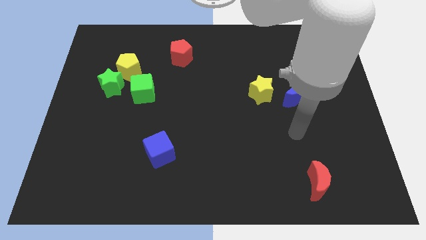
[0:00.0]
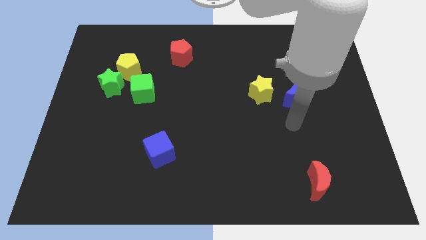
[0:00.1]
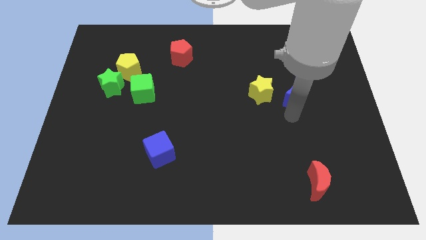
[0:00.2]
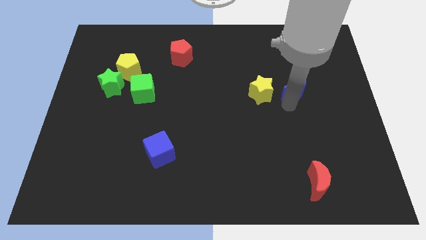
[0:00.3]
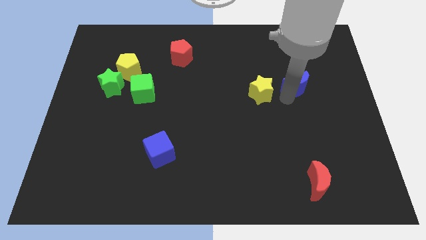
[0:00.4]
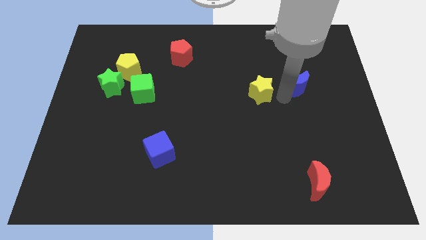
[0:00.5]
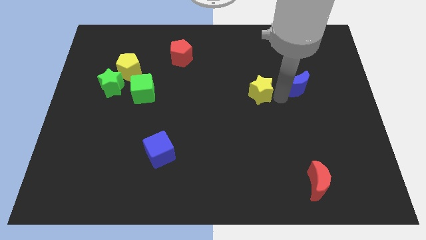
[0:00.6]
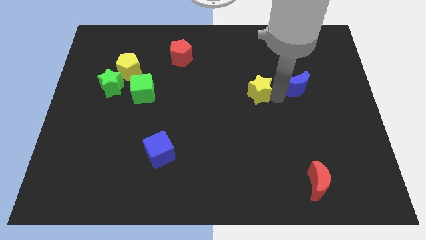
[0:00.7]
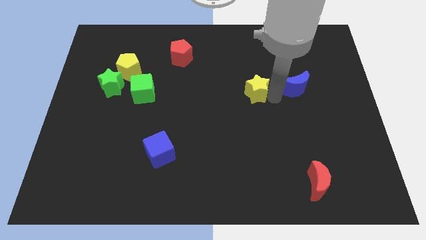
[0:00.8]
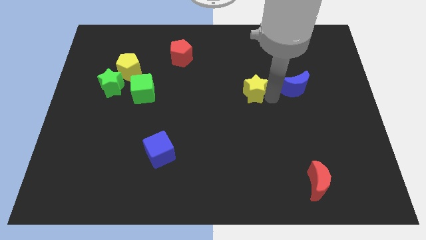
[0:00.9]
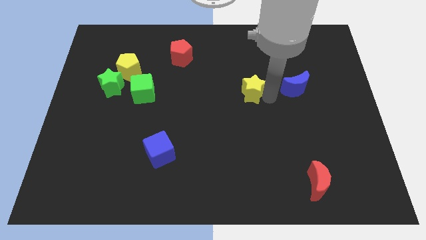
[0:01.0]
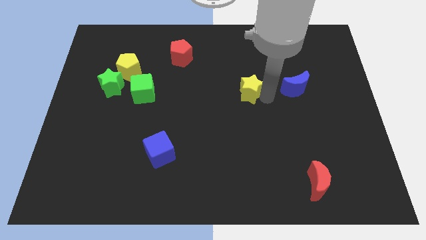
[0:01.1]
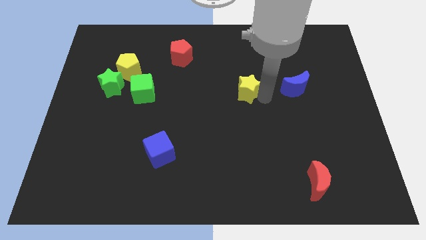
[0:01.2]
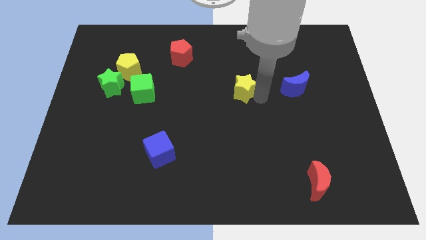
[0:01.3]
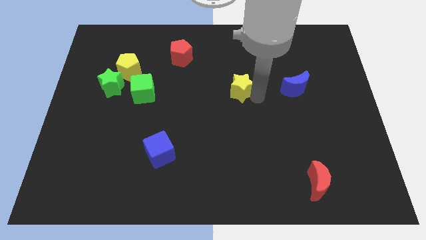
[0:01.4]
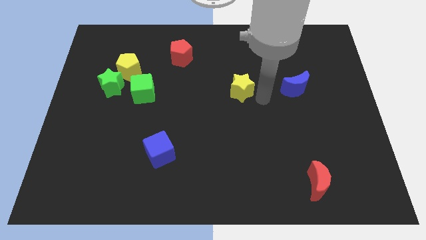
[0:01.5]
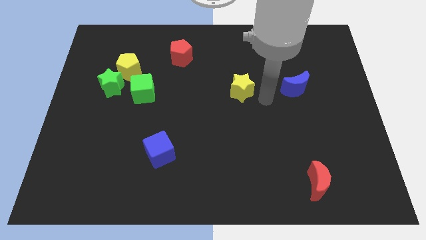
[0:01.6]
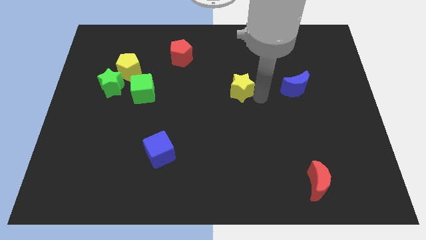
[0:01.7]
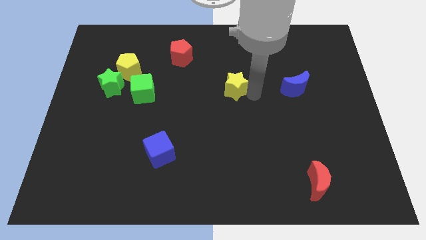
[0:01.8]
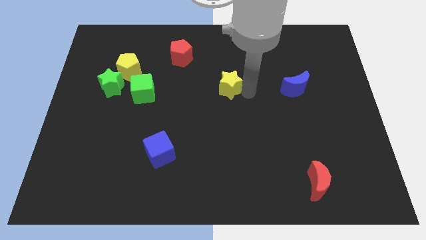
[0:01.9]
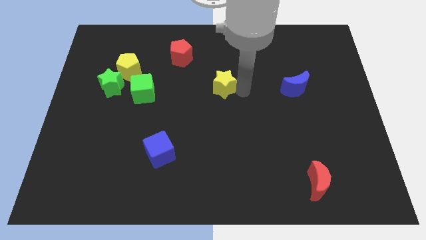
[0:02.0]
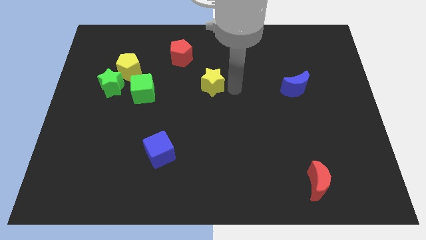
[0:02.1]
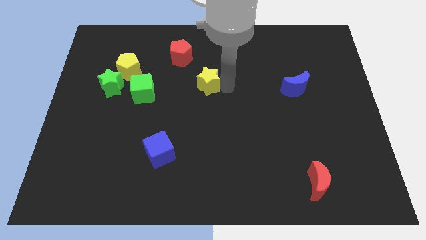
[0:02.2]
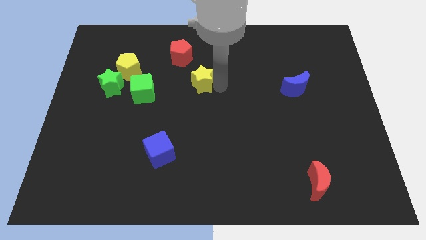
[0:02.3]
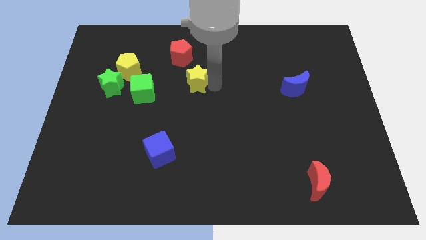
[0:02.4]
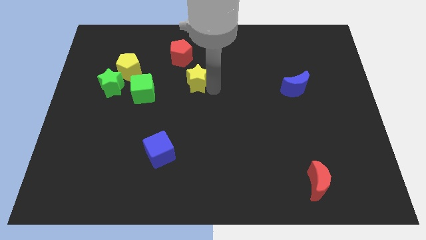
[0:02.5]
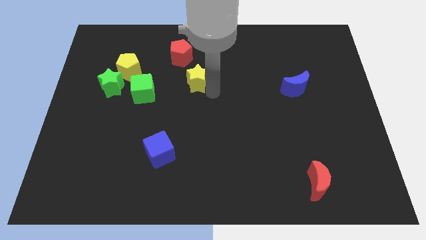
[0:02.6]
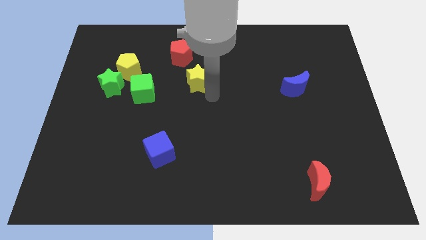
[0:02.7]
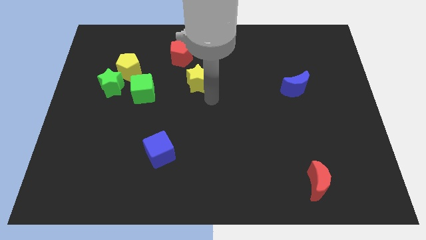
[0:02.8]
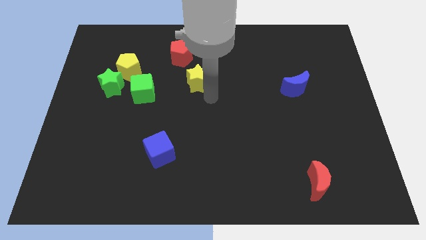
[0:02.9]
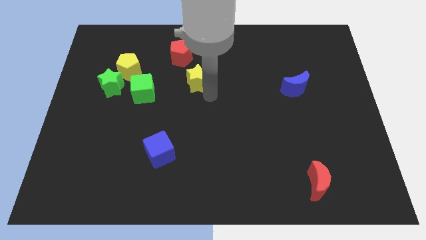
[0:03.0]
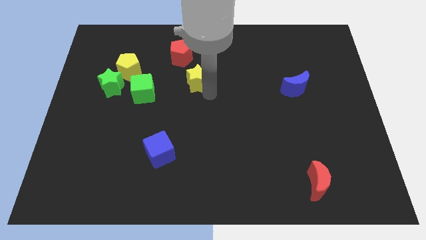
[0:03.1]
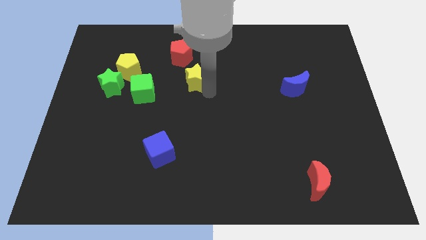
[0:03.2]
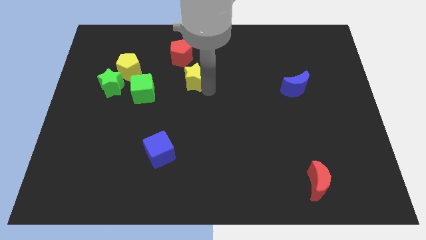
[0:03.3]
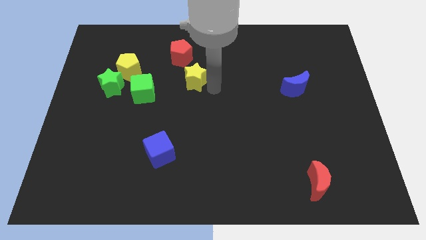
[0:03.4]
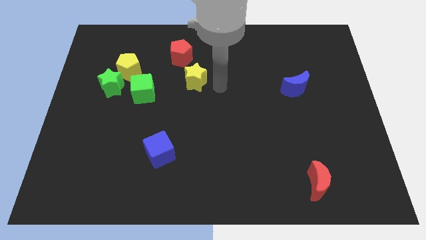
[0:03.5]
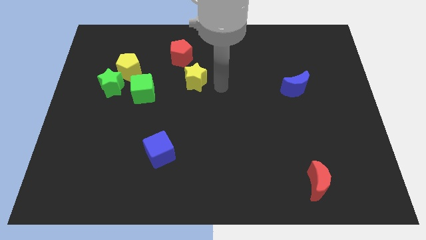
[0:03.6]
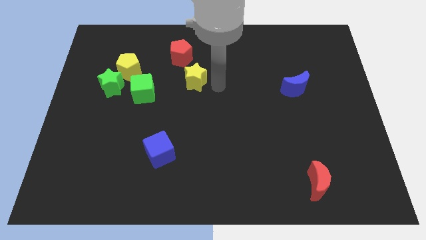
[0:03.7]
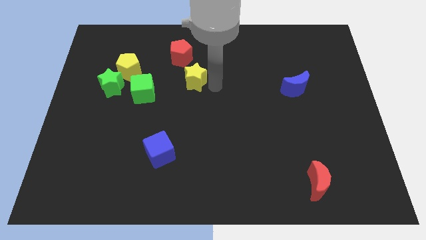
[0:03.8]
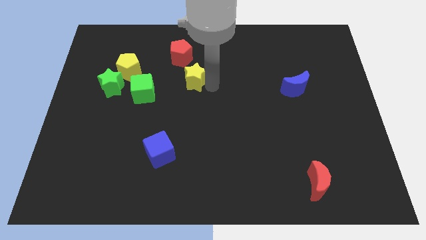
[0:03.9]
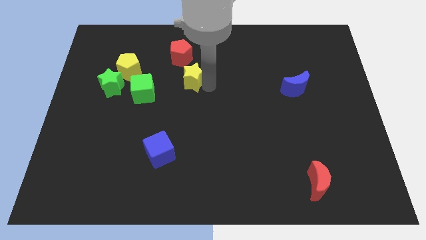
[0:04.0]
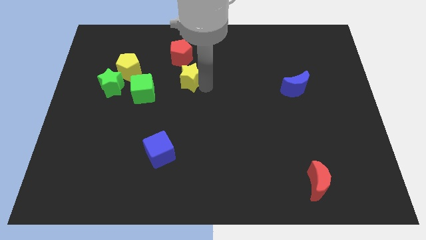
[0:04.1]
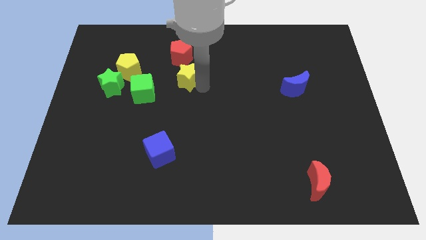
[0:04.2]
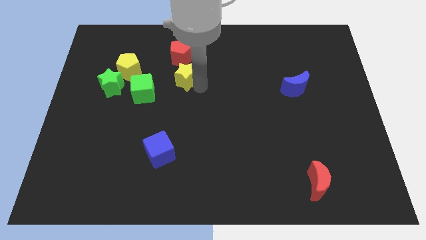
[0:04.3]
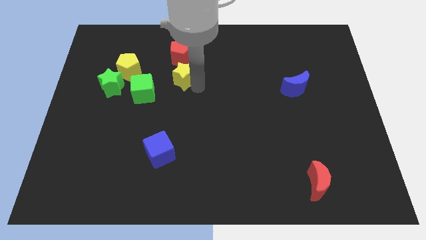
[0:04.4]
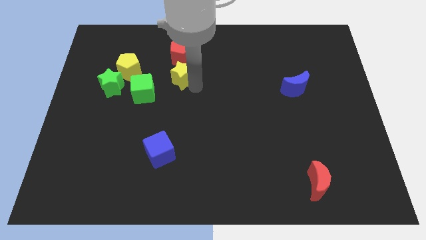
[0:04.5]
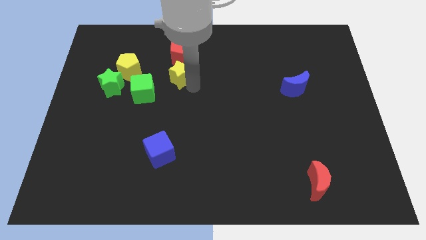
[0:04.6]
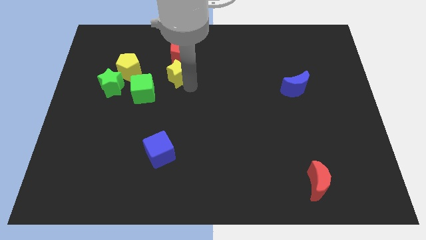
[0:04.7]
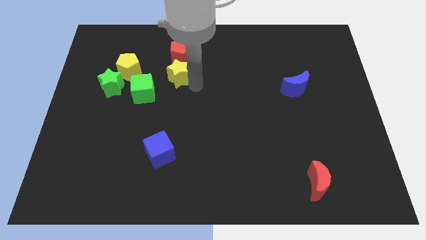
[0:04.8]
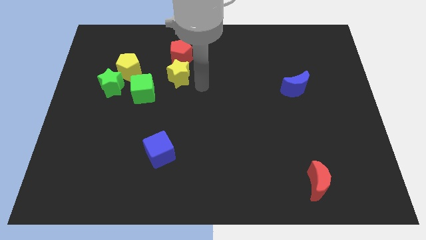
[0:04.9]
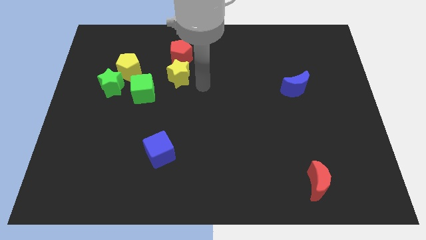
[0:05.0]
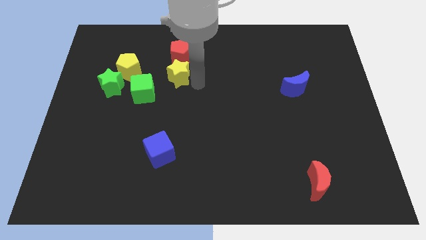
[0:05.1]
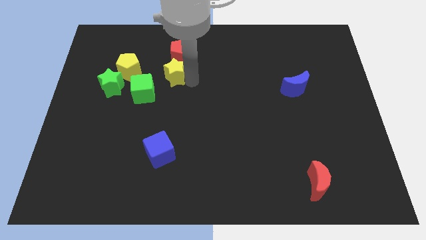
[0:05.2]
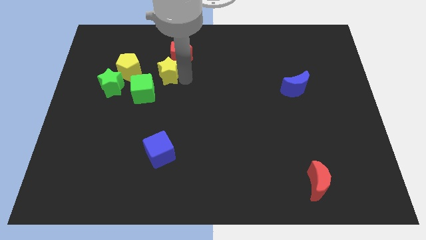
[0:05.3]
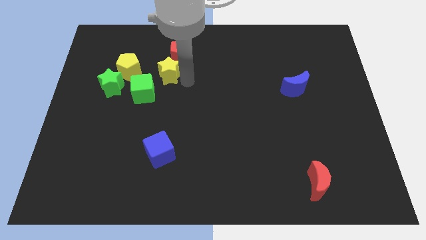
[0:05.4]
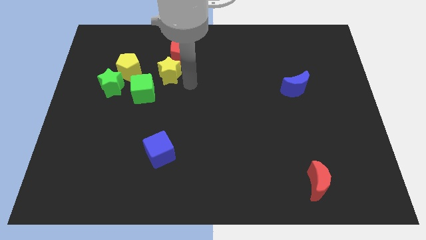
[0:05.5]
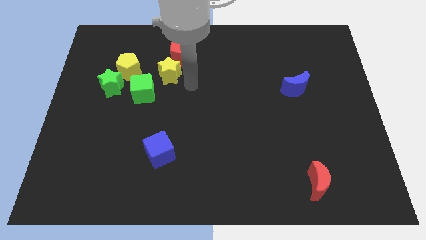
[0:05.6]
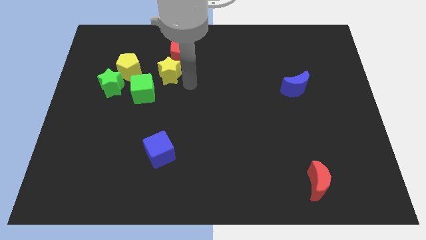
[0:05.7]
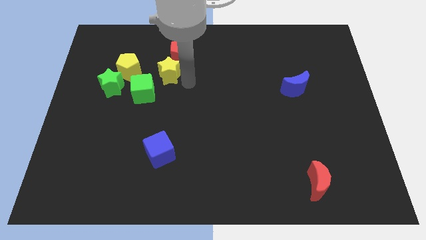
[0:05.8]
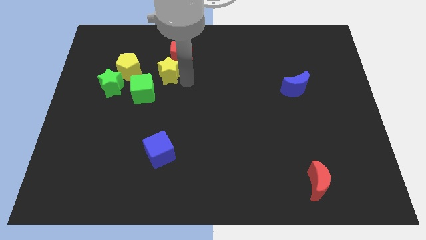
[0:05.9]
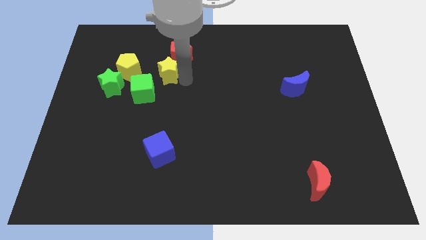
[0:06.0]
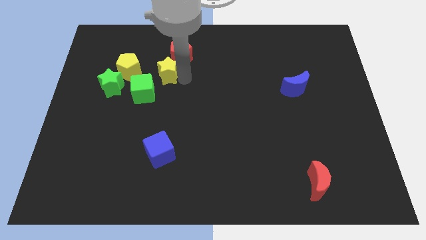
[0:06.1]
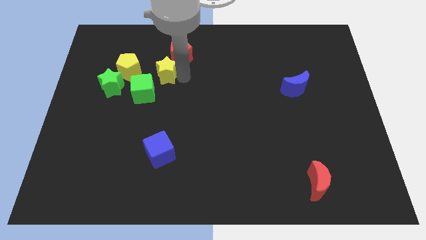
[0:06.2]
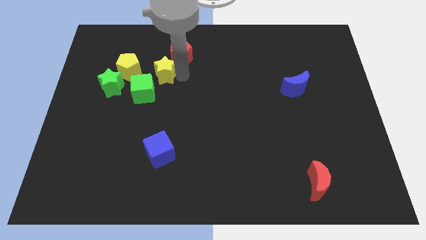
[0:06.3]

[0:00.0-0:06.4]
push the yellow star to the top side of the green cube

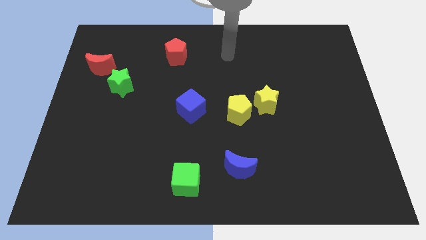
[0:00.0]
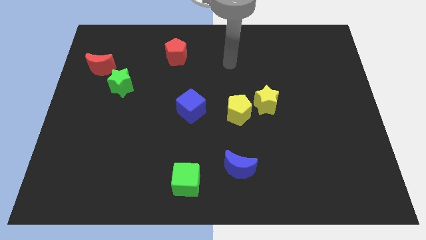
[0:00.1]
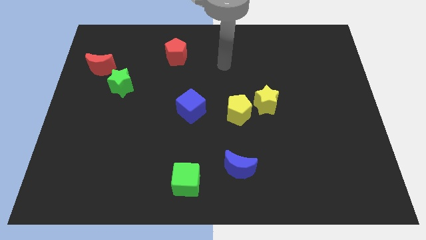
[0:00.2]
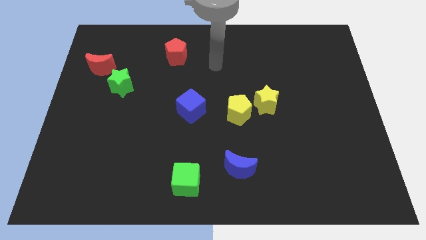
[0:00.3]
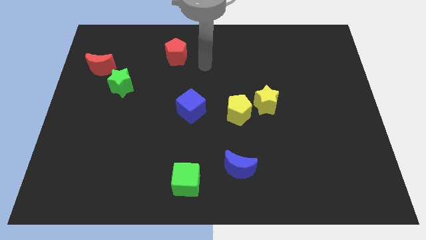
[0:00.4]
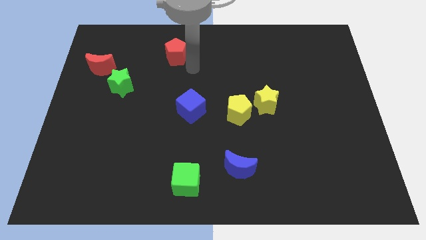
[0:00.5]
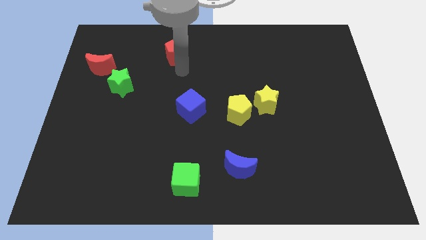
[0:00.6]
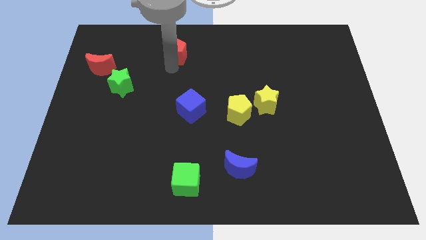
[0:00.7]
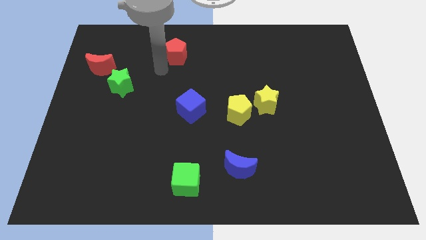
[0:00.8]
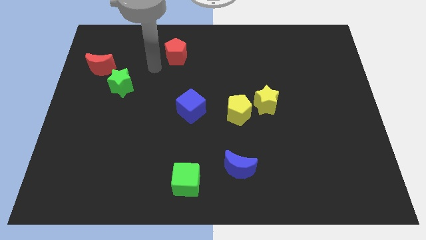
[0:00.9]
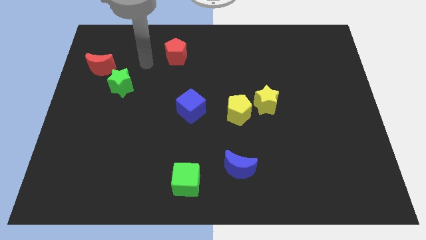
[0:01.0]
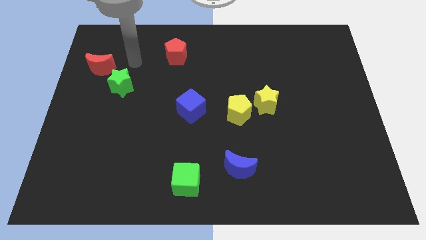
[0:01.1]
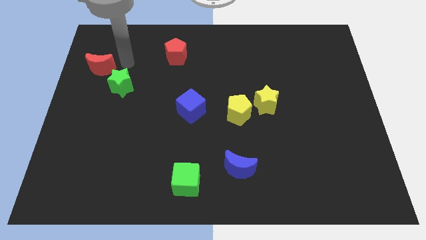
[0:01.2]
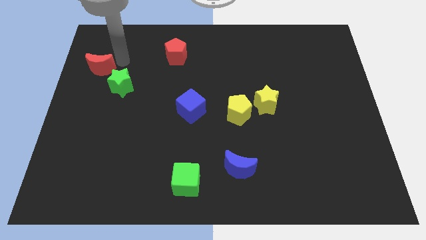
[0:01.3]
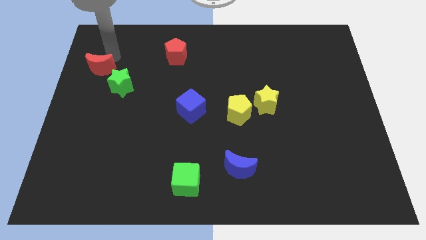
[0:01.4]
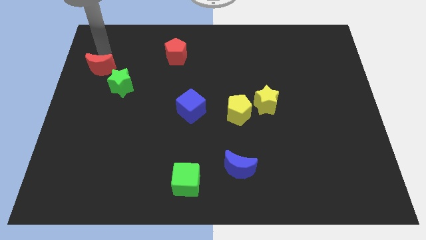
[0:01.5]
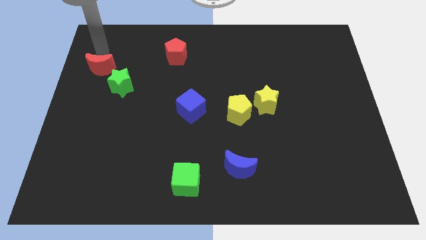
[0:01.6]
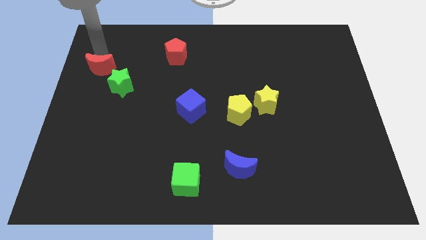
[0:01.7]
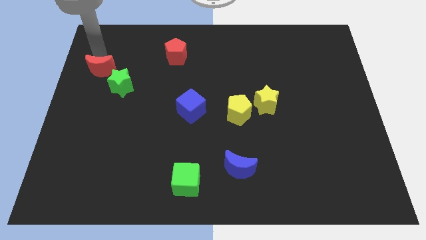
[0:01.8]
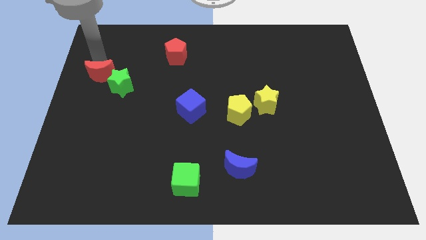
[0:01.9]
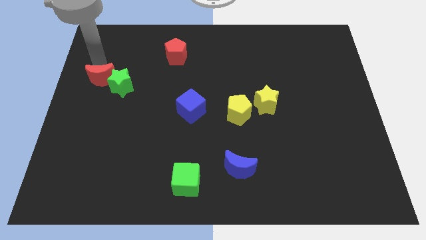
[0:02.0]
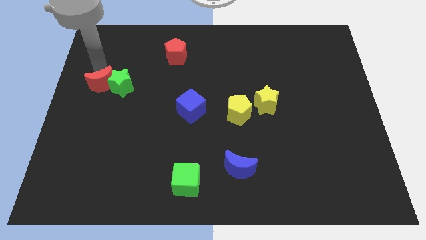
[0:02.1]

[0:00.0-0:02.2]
push the red moon diagonally down and to the left of the green star
